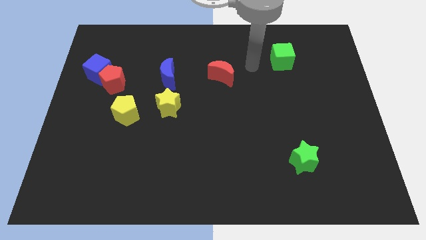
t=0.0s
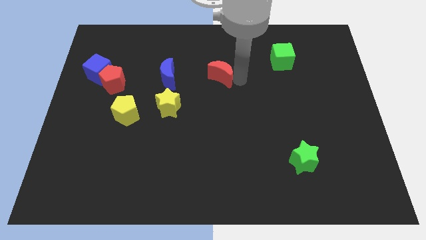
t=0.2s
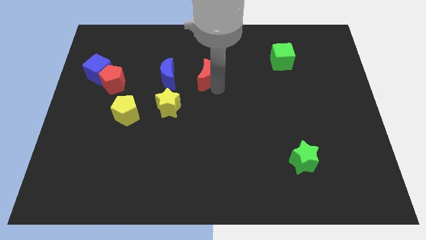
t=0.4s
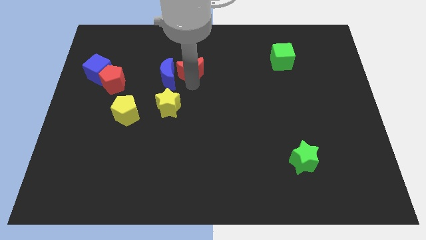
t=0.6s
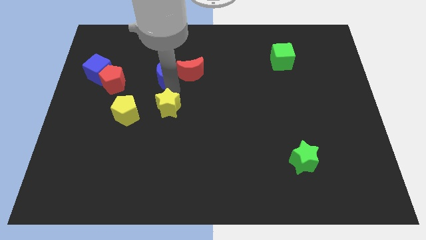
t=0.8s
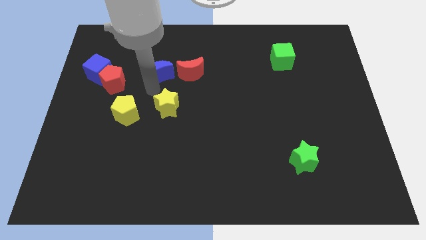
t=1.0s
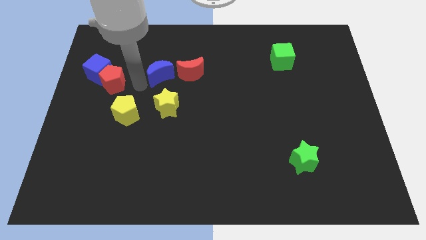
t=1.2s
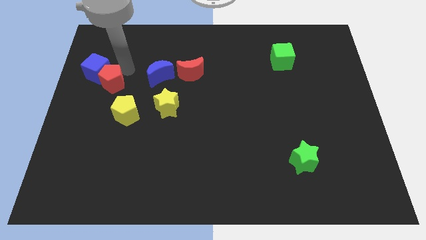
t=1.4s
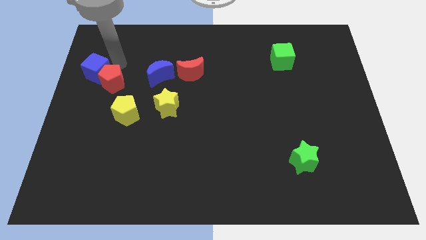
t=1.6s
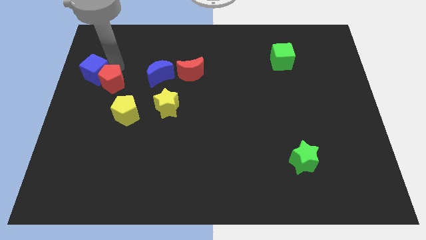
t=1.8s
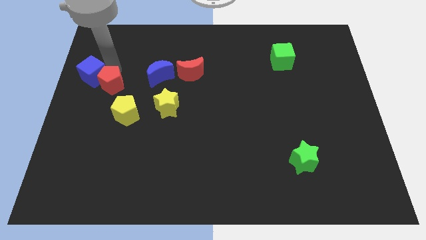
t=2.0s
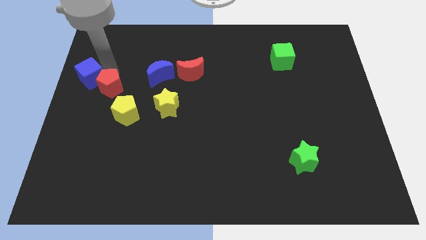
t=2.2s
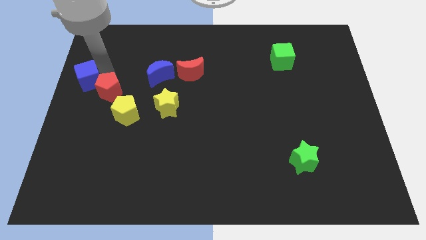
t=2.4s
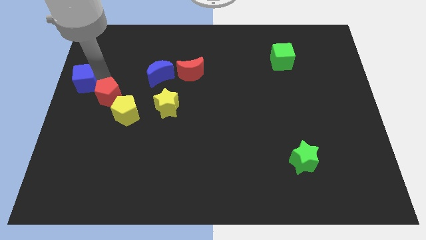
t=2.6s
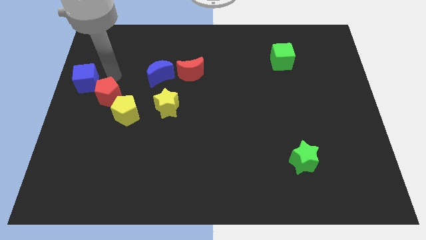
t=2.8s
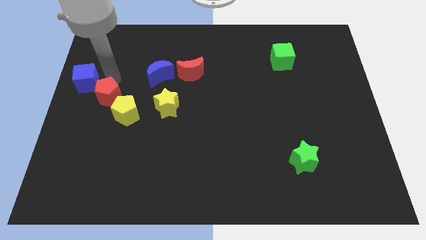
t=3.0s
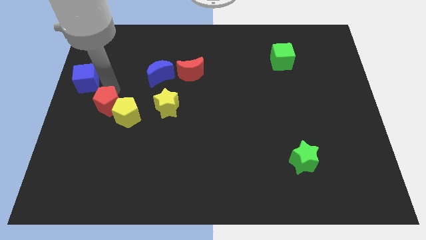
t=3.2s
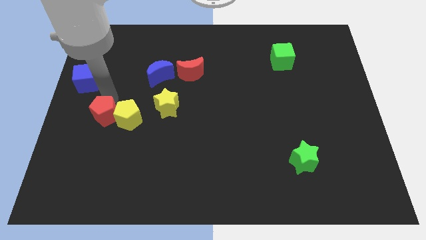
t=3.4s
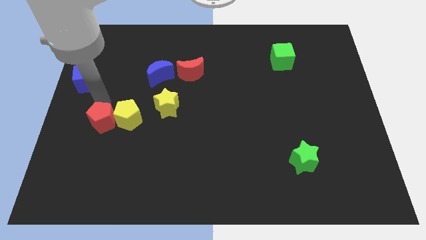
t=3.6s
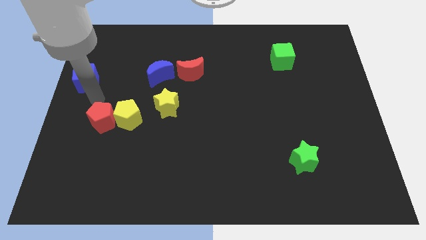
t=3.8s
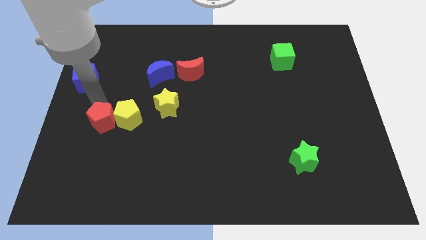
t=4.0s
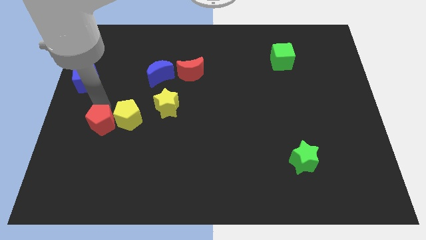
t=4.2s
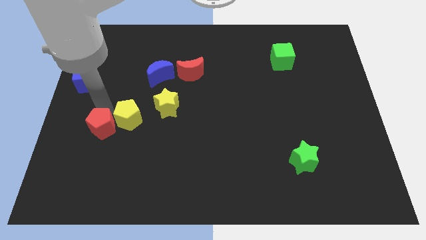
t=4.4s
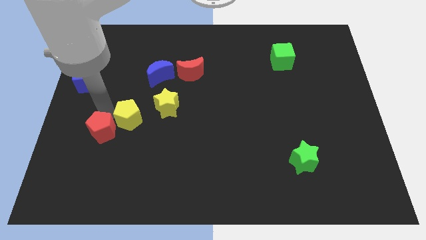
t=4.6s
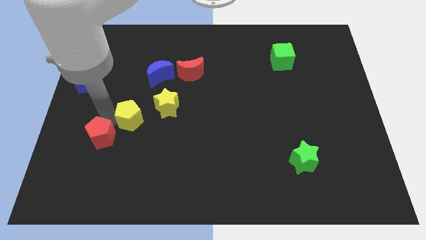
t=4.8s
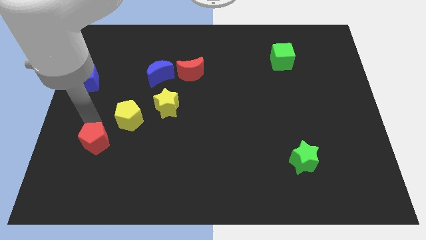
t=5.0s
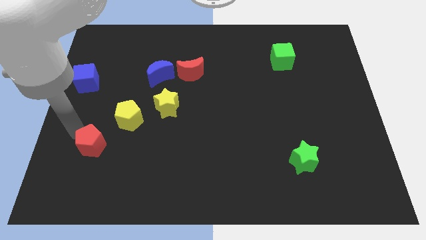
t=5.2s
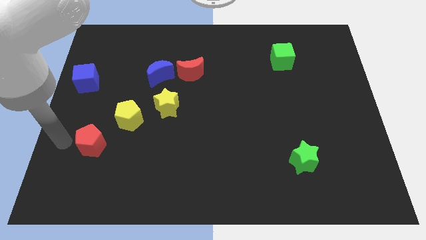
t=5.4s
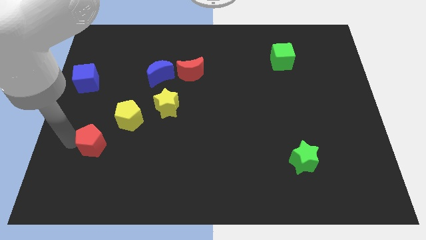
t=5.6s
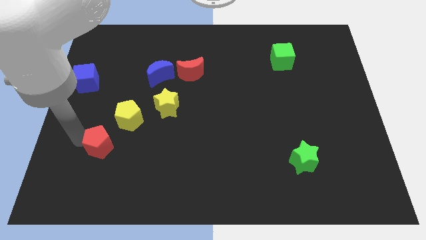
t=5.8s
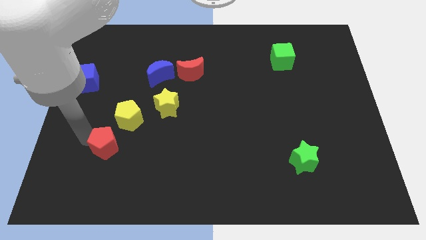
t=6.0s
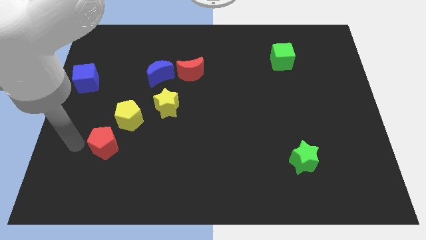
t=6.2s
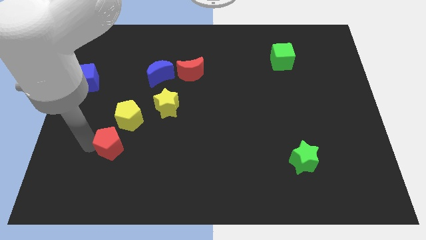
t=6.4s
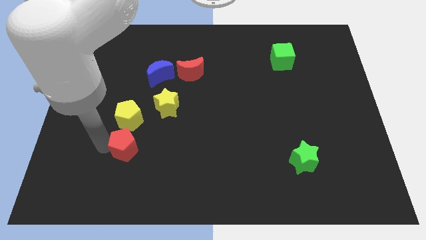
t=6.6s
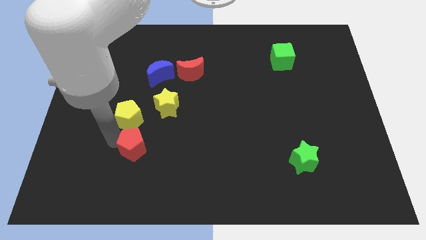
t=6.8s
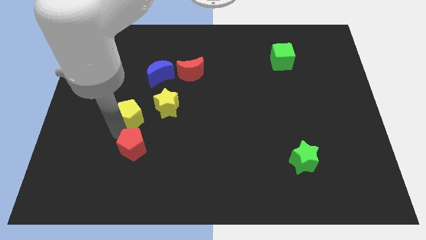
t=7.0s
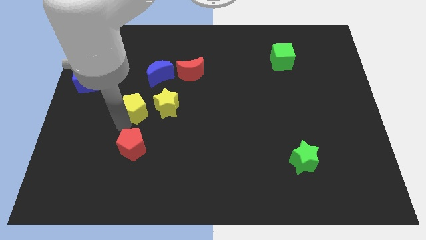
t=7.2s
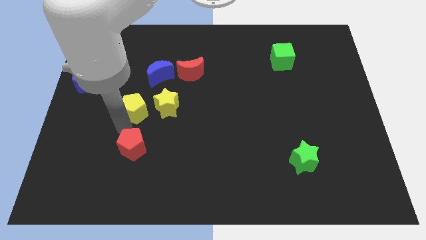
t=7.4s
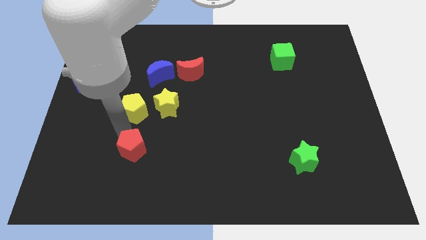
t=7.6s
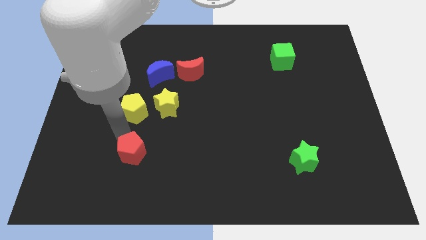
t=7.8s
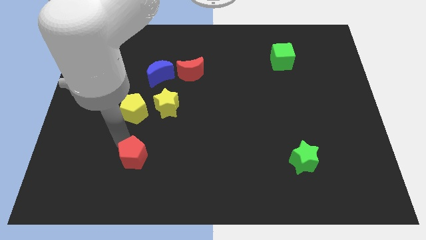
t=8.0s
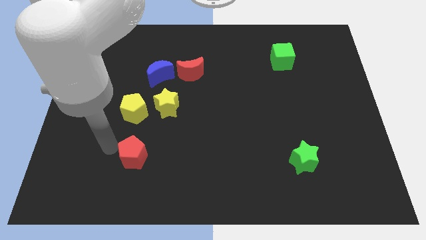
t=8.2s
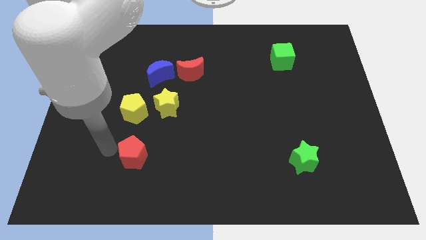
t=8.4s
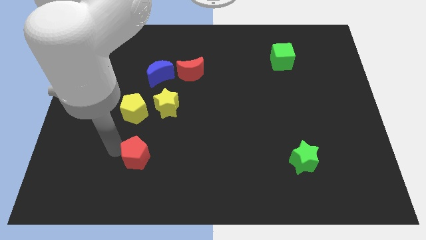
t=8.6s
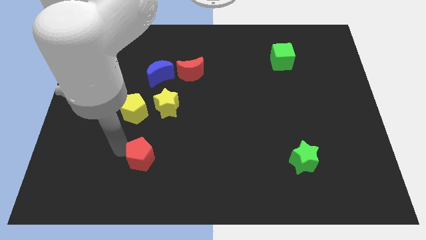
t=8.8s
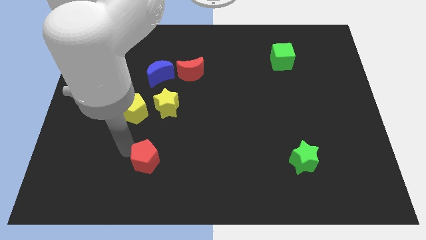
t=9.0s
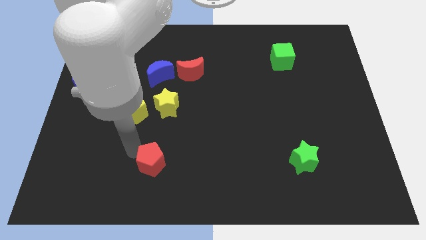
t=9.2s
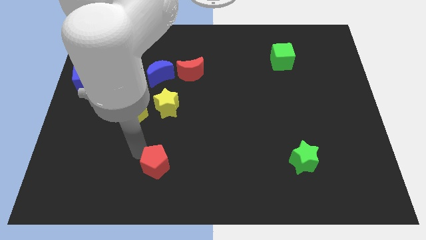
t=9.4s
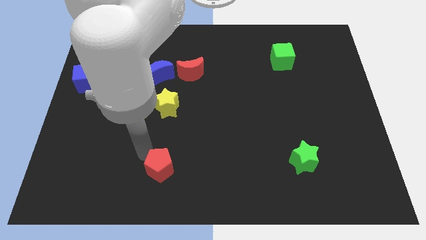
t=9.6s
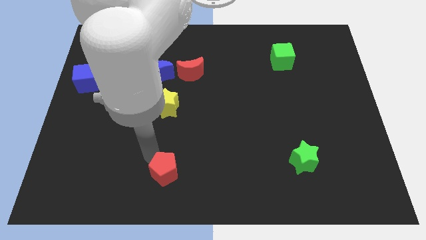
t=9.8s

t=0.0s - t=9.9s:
put the red pentagon to the bottom
